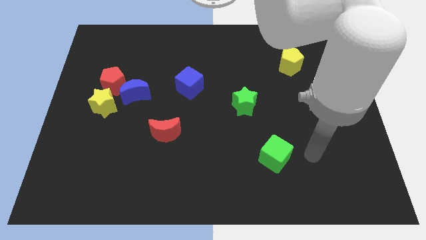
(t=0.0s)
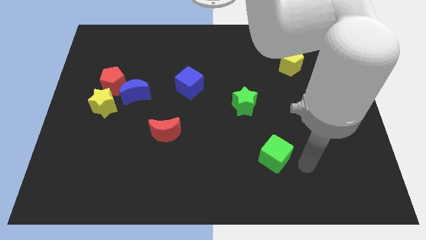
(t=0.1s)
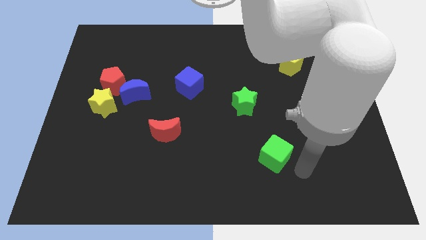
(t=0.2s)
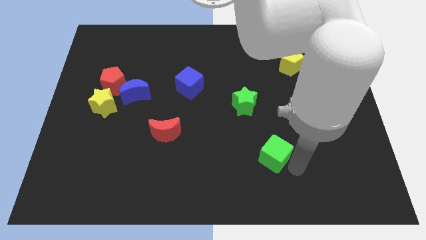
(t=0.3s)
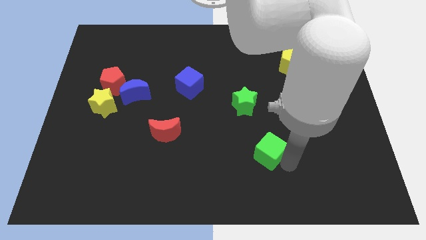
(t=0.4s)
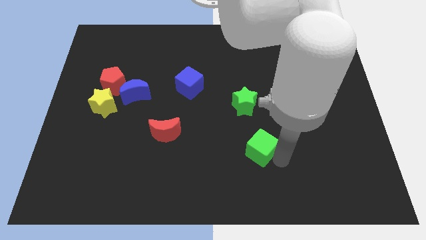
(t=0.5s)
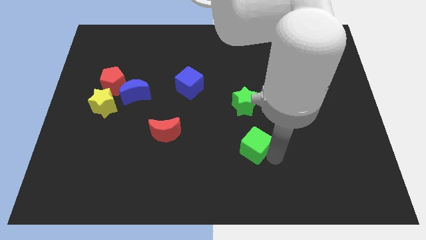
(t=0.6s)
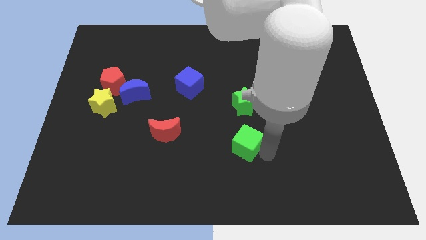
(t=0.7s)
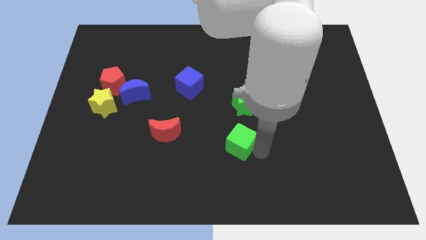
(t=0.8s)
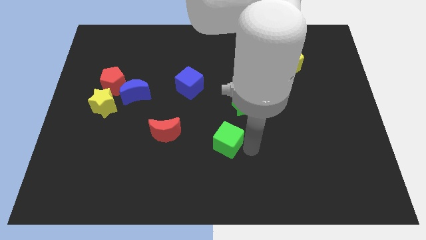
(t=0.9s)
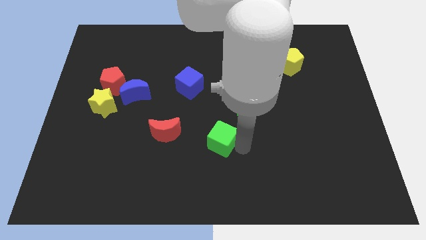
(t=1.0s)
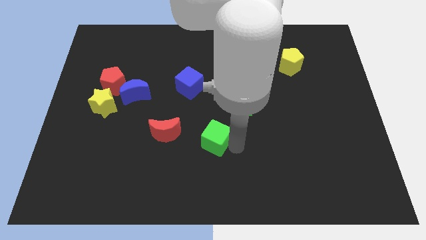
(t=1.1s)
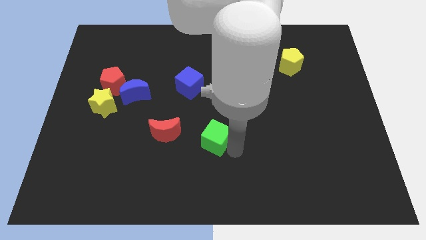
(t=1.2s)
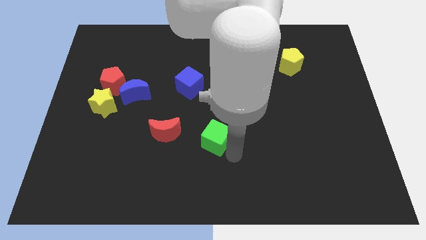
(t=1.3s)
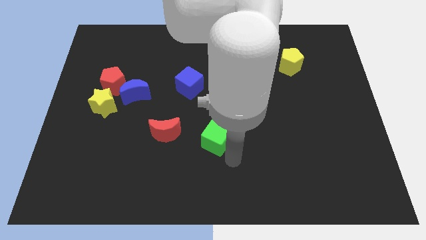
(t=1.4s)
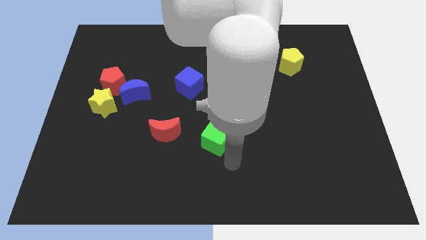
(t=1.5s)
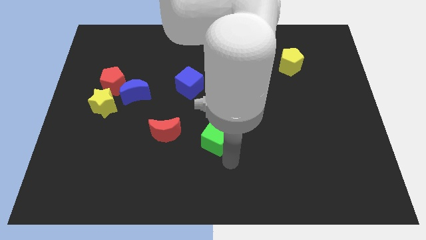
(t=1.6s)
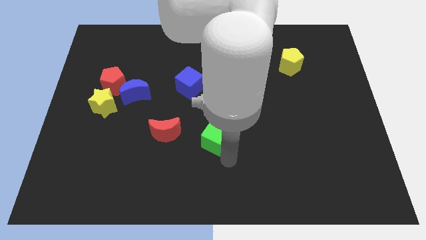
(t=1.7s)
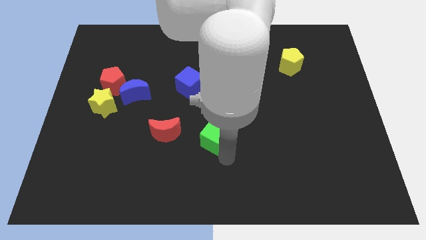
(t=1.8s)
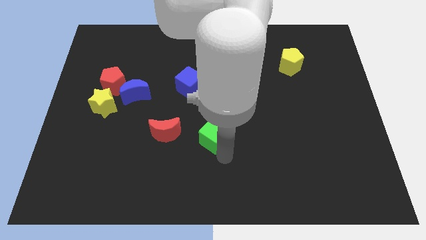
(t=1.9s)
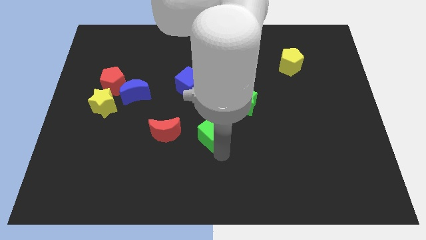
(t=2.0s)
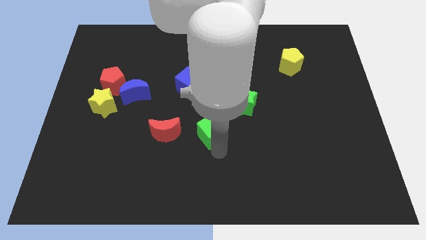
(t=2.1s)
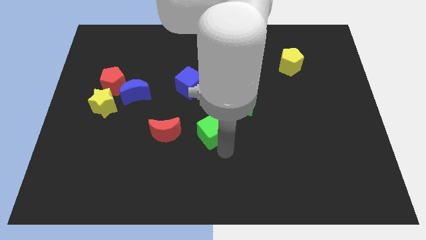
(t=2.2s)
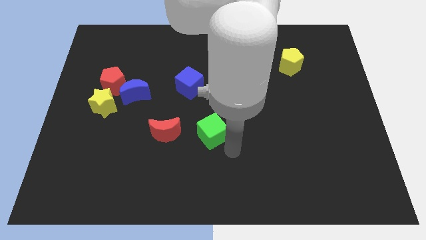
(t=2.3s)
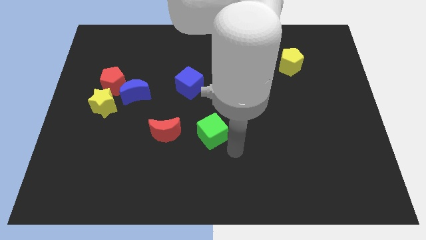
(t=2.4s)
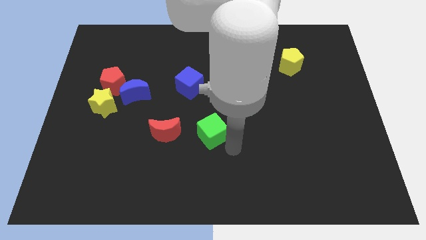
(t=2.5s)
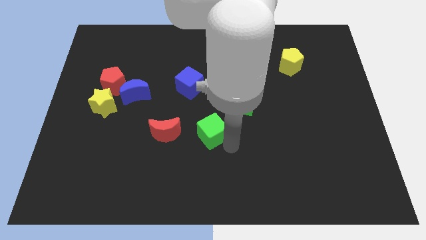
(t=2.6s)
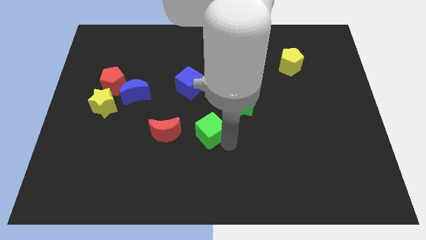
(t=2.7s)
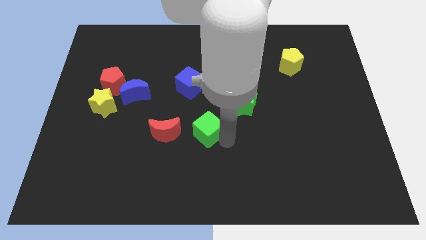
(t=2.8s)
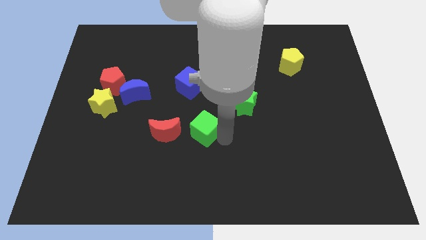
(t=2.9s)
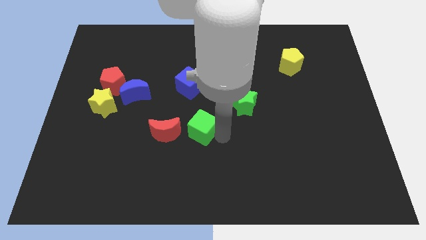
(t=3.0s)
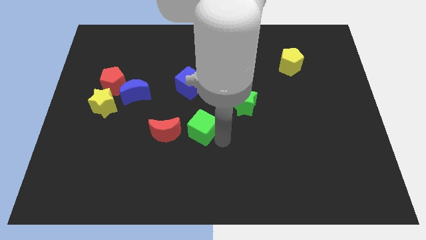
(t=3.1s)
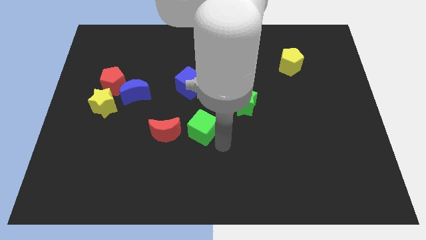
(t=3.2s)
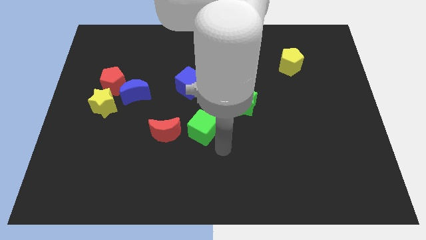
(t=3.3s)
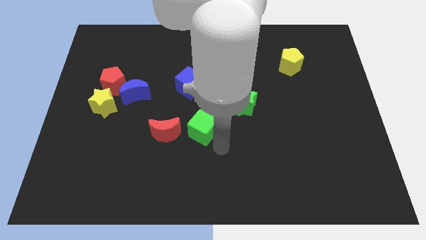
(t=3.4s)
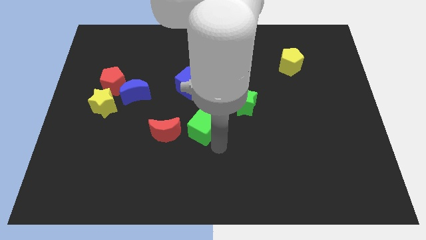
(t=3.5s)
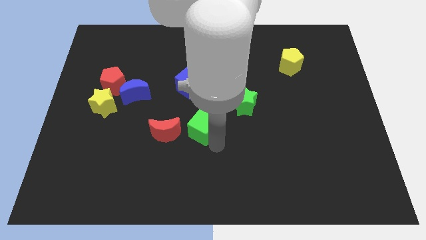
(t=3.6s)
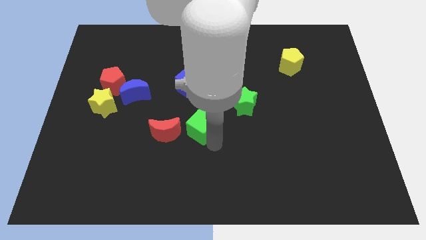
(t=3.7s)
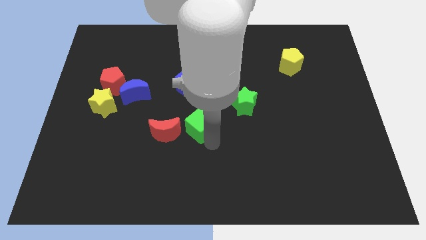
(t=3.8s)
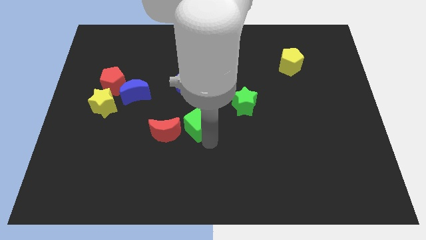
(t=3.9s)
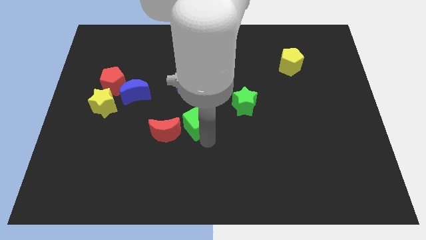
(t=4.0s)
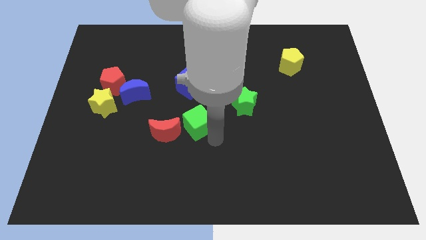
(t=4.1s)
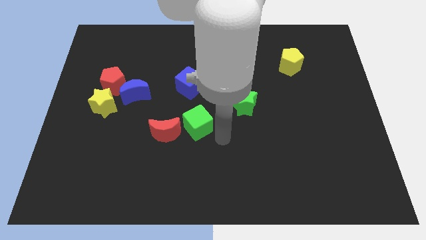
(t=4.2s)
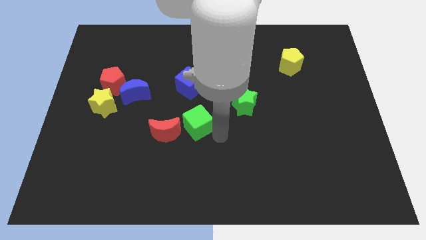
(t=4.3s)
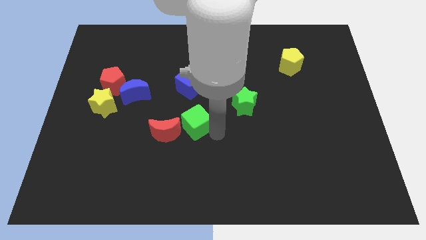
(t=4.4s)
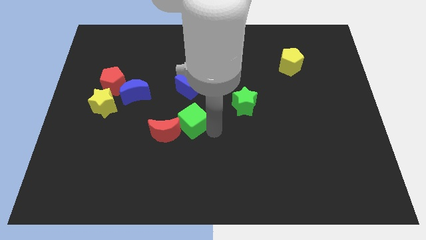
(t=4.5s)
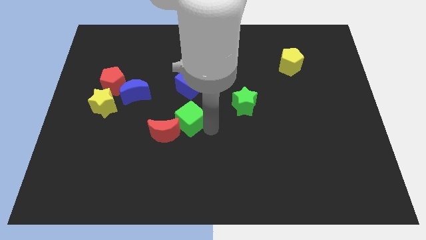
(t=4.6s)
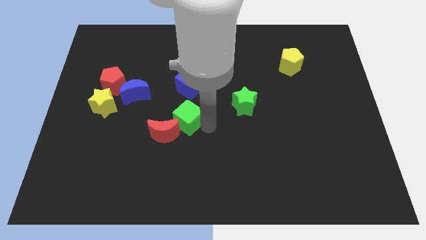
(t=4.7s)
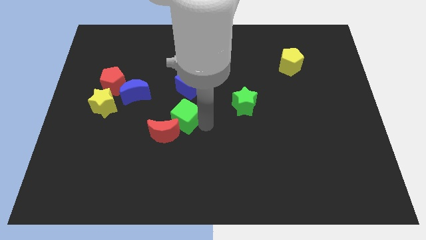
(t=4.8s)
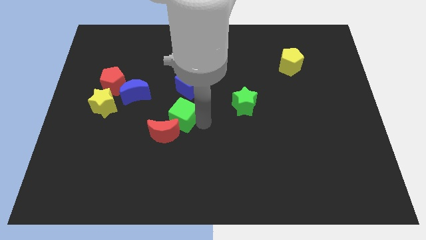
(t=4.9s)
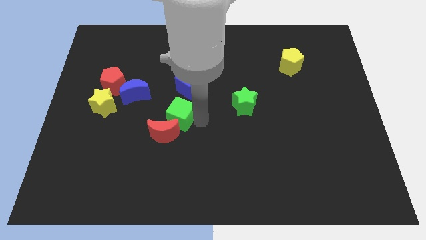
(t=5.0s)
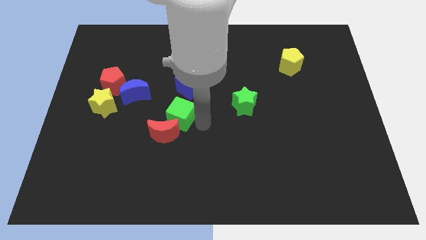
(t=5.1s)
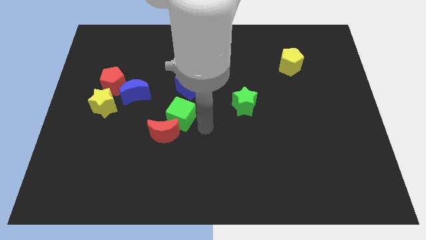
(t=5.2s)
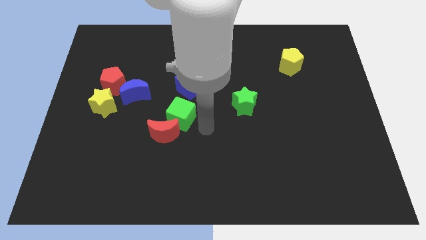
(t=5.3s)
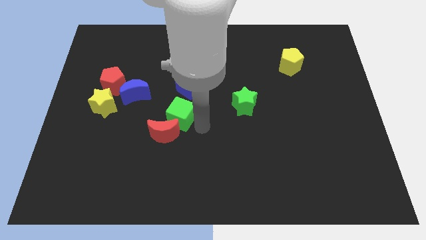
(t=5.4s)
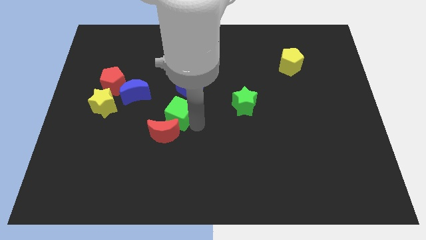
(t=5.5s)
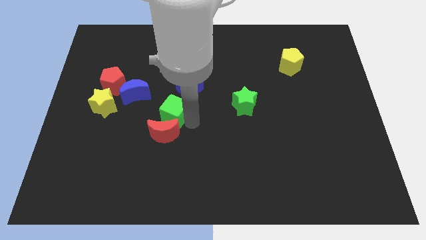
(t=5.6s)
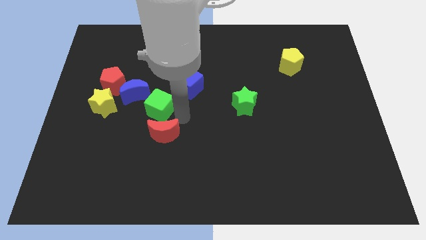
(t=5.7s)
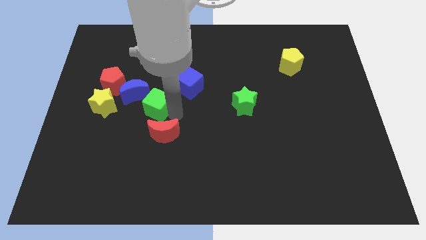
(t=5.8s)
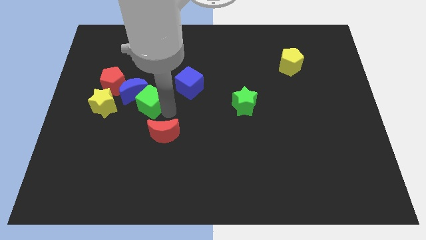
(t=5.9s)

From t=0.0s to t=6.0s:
push the green cube diagonally down and to the right of the red pentagon
